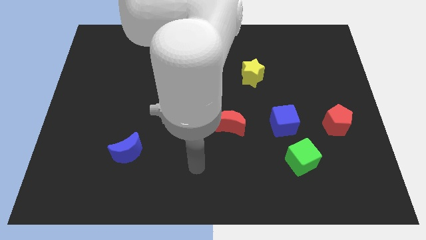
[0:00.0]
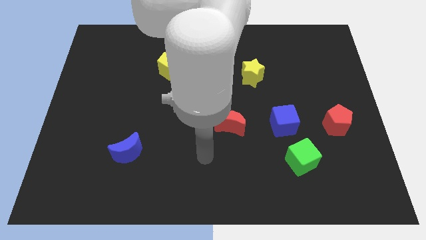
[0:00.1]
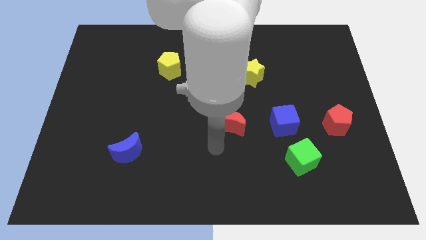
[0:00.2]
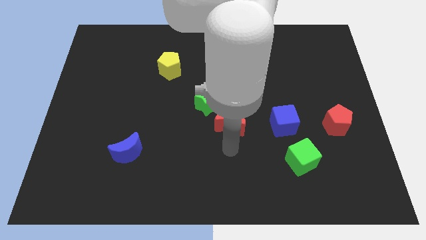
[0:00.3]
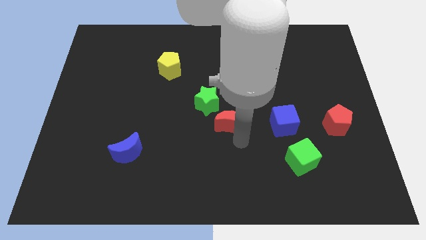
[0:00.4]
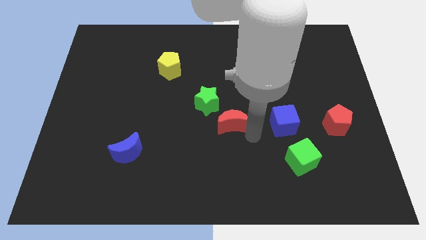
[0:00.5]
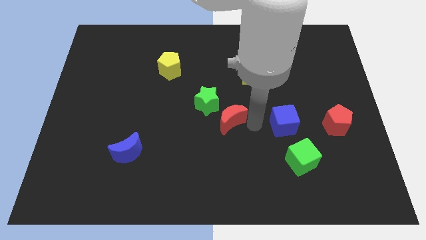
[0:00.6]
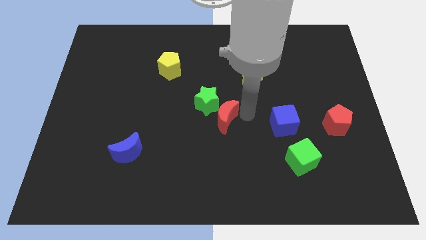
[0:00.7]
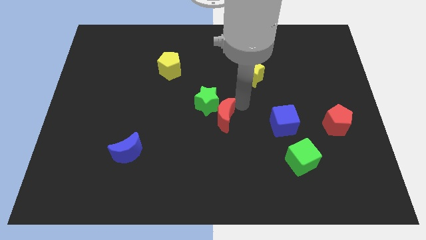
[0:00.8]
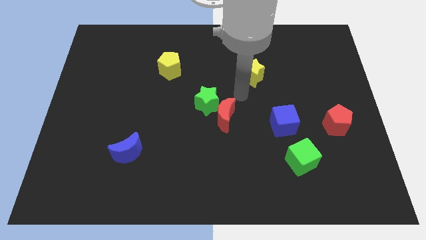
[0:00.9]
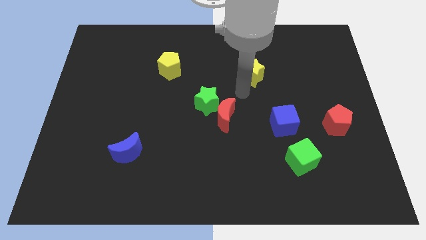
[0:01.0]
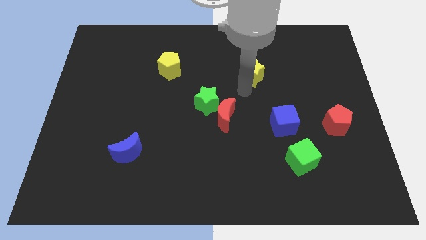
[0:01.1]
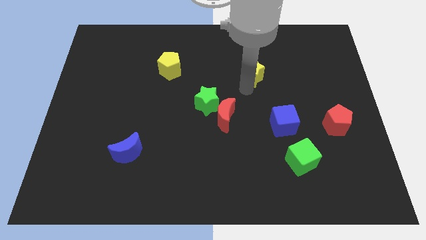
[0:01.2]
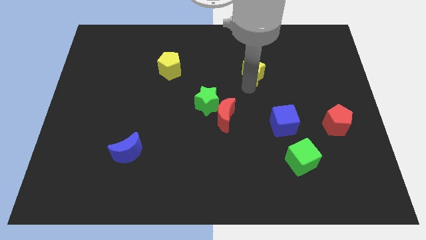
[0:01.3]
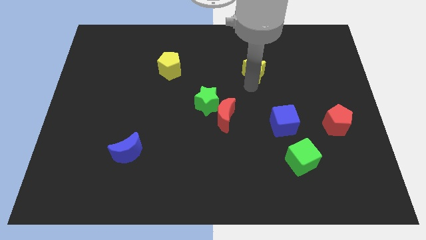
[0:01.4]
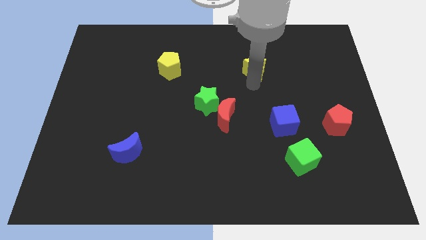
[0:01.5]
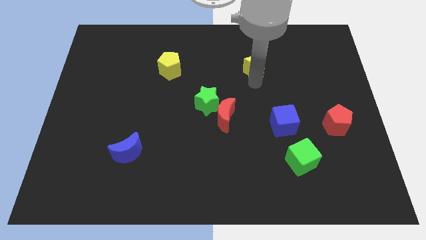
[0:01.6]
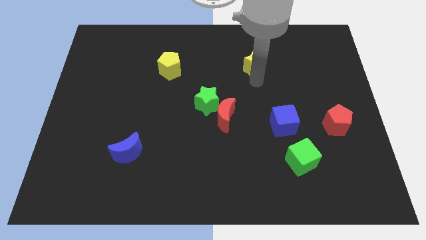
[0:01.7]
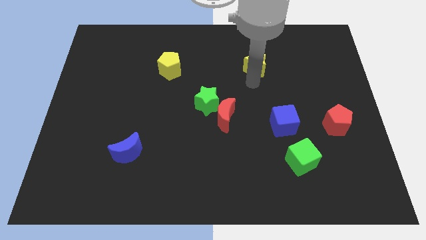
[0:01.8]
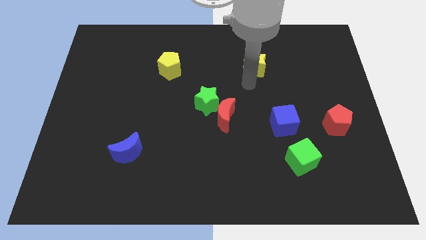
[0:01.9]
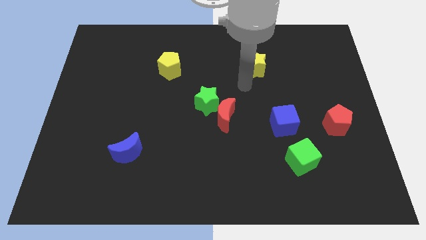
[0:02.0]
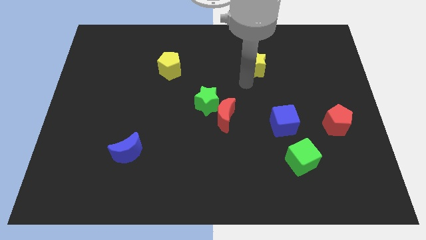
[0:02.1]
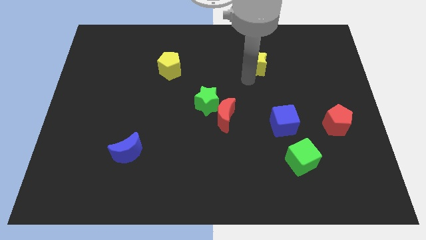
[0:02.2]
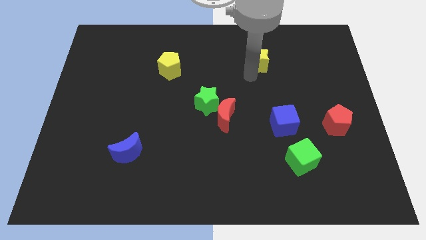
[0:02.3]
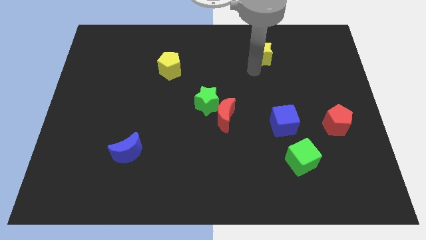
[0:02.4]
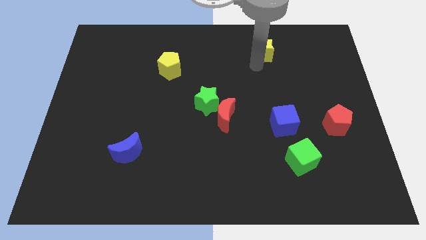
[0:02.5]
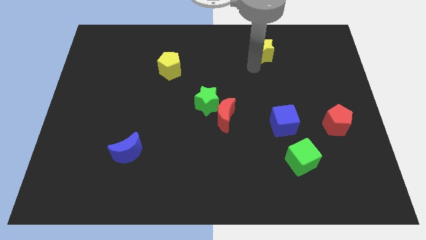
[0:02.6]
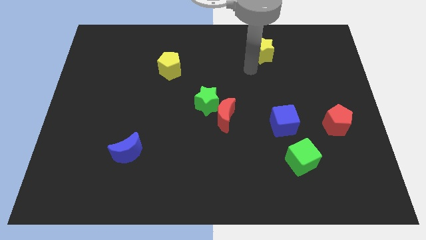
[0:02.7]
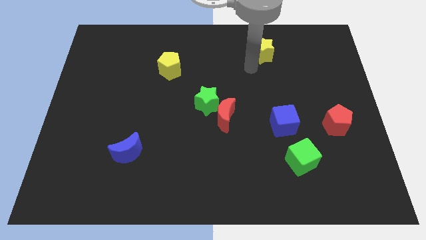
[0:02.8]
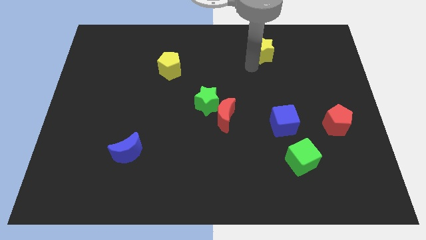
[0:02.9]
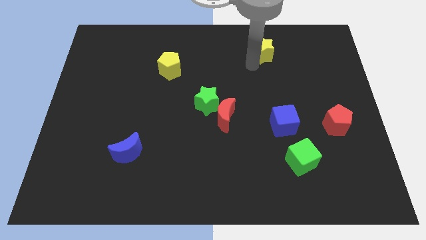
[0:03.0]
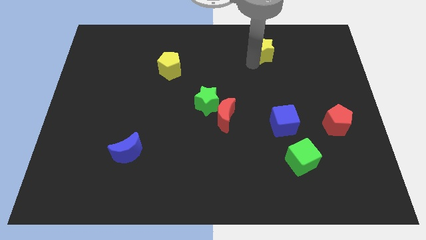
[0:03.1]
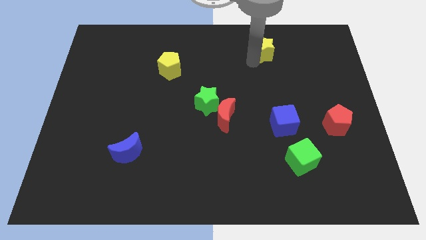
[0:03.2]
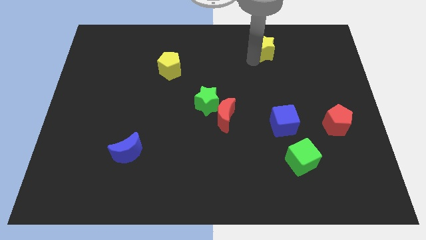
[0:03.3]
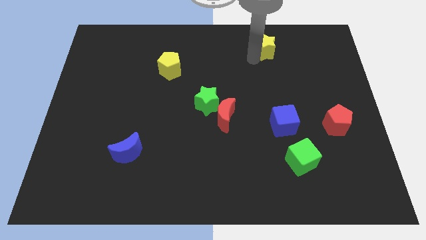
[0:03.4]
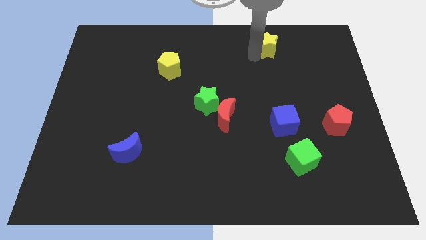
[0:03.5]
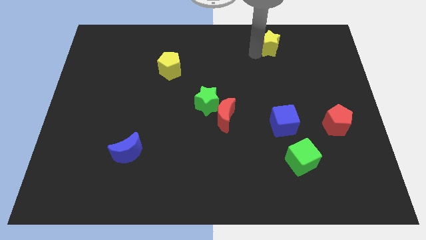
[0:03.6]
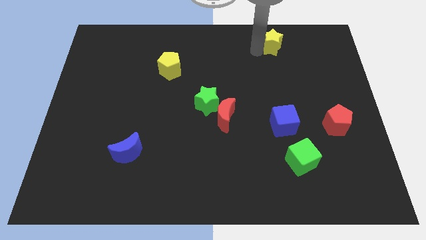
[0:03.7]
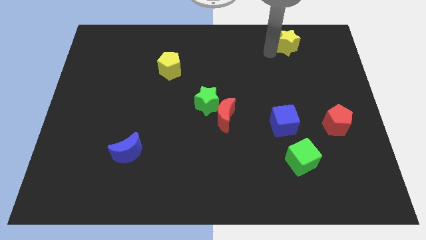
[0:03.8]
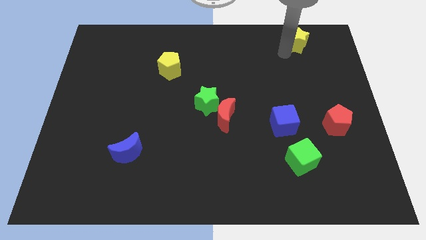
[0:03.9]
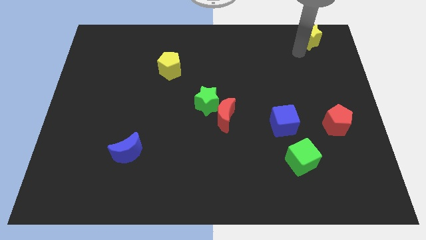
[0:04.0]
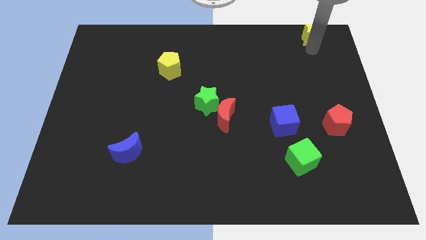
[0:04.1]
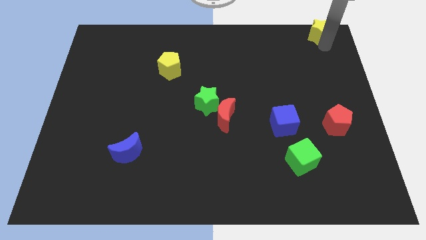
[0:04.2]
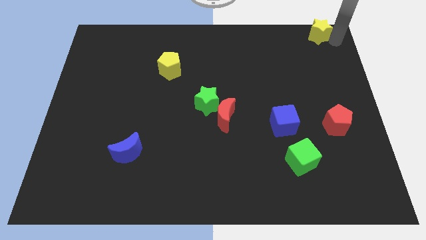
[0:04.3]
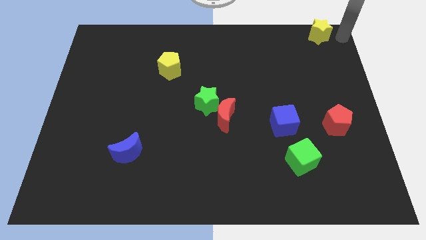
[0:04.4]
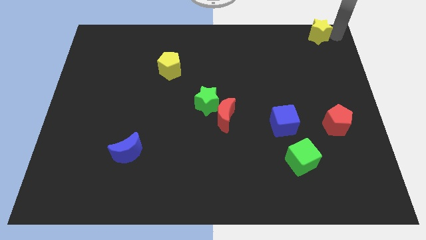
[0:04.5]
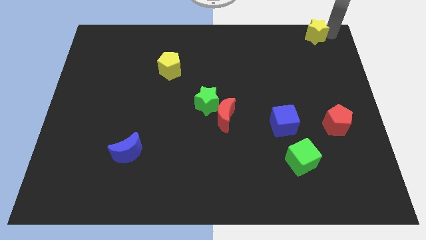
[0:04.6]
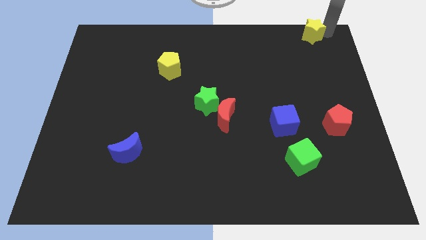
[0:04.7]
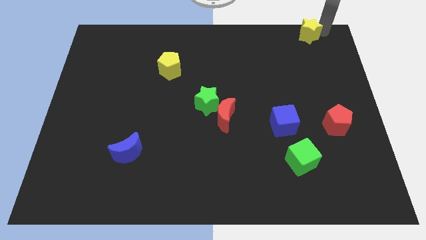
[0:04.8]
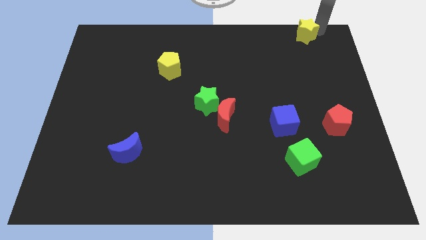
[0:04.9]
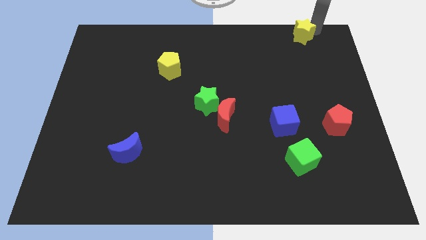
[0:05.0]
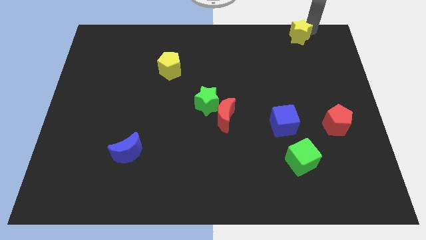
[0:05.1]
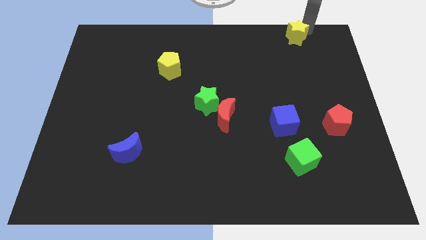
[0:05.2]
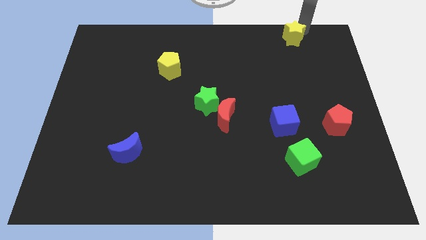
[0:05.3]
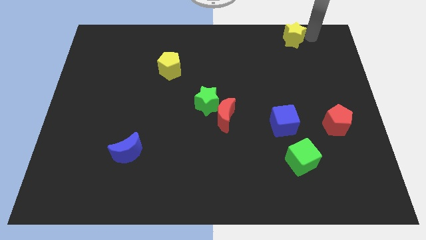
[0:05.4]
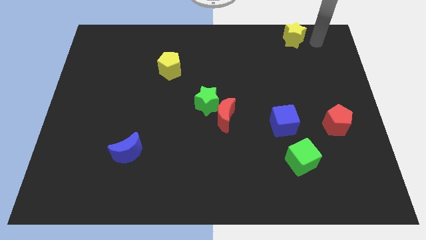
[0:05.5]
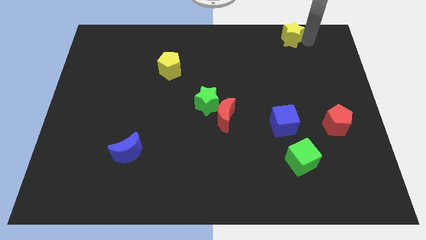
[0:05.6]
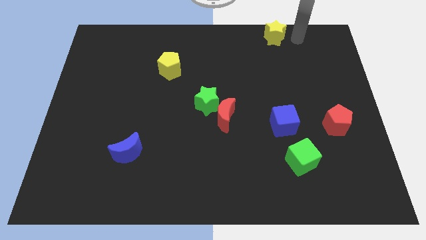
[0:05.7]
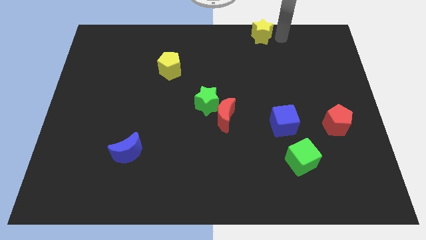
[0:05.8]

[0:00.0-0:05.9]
put the yellow star to the towards your base

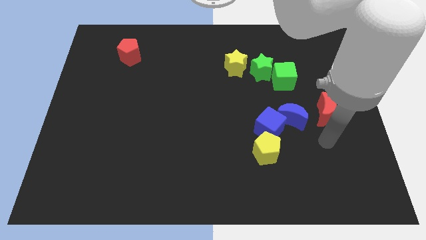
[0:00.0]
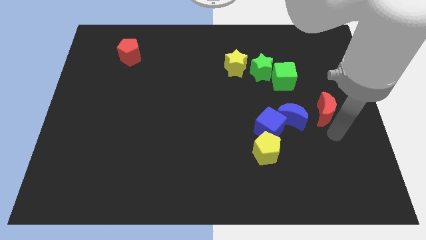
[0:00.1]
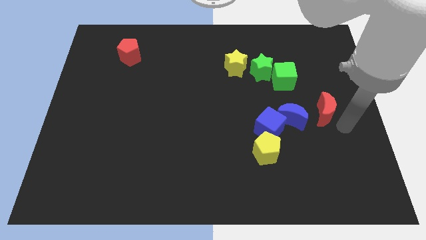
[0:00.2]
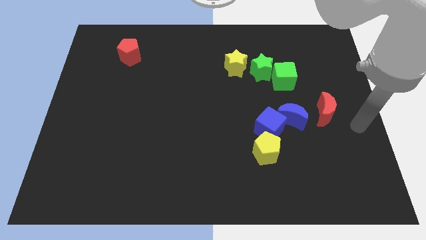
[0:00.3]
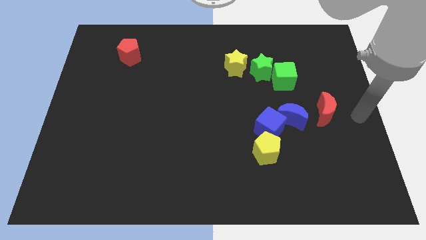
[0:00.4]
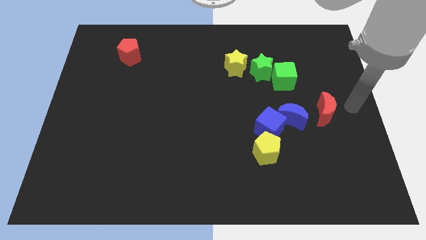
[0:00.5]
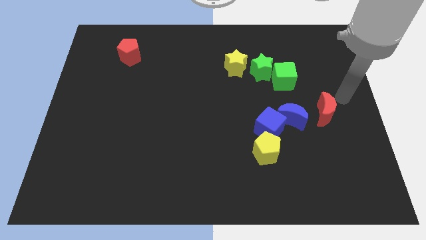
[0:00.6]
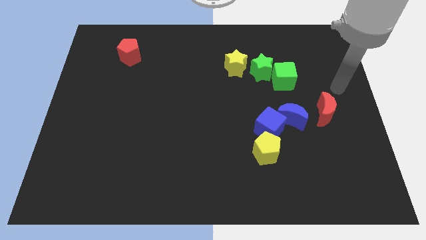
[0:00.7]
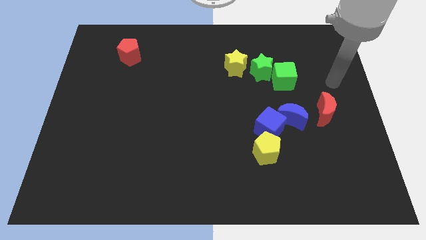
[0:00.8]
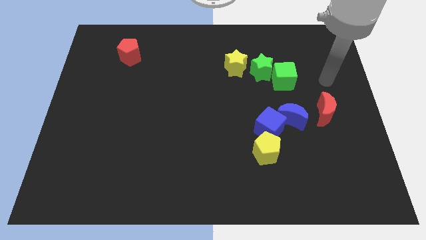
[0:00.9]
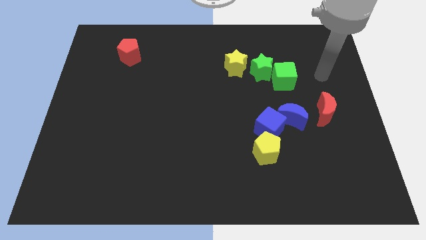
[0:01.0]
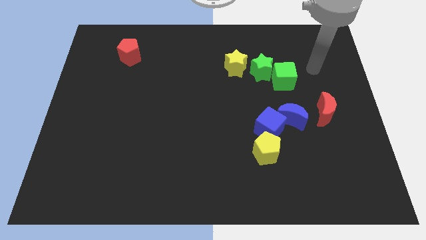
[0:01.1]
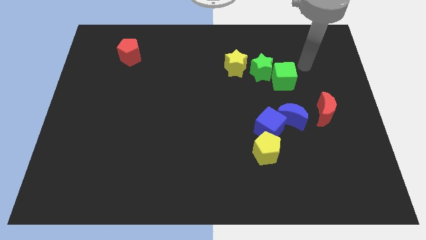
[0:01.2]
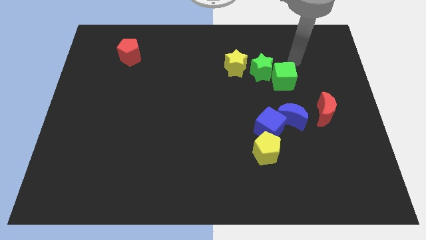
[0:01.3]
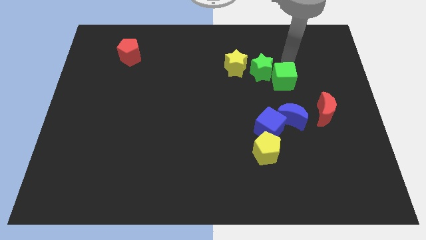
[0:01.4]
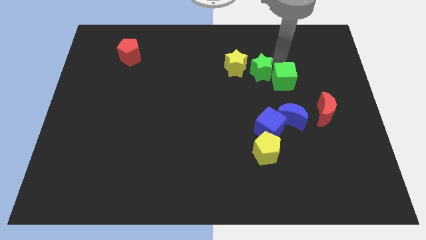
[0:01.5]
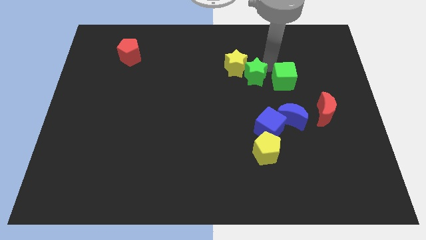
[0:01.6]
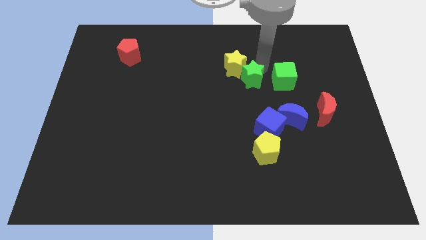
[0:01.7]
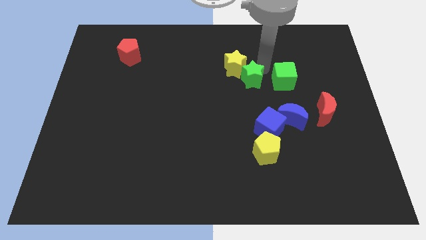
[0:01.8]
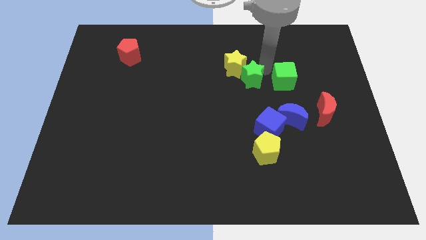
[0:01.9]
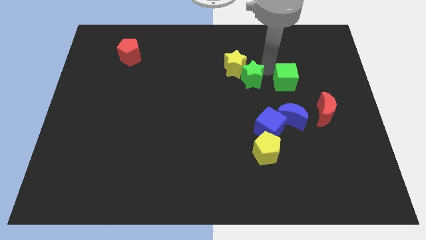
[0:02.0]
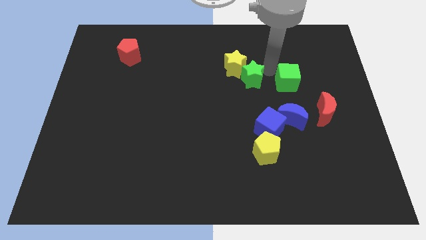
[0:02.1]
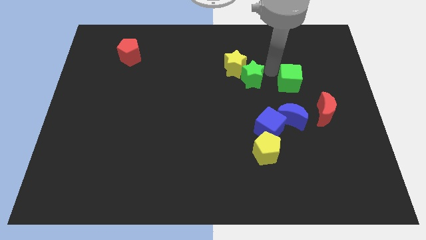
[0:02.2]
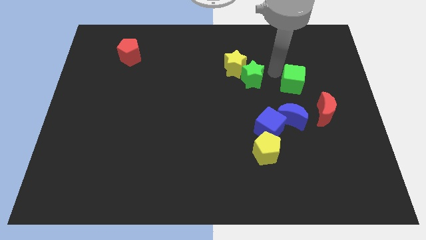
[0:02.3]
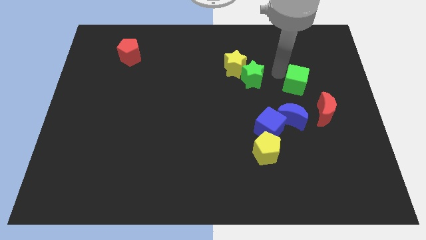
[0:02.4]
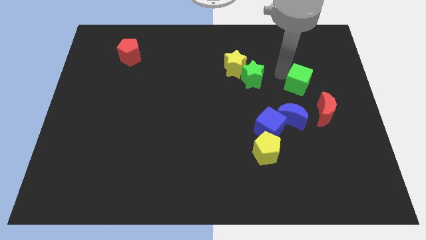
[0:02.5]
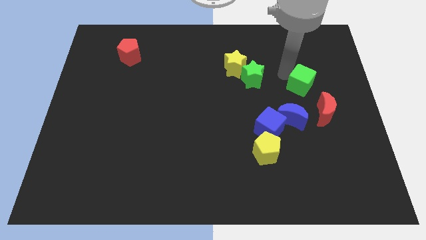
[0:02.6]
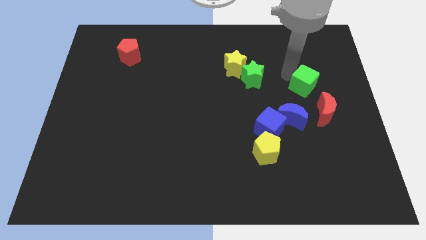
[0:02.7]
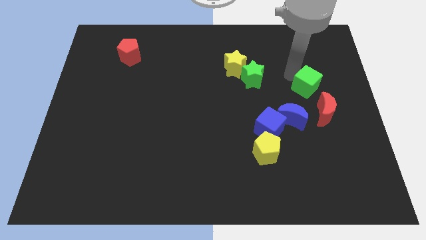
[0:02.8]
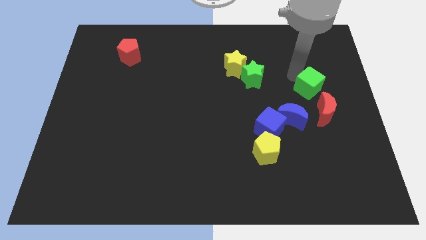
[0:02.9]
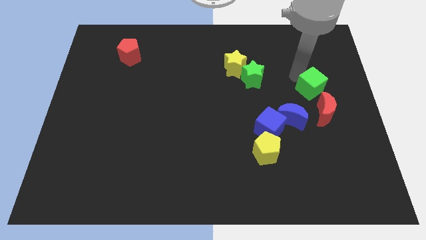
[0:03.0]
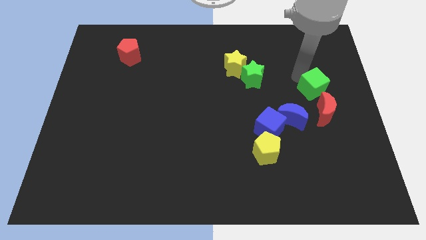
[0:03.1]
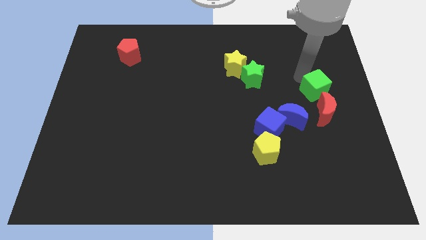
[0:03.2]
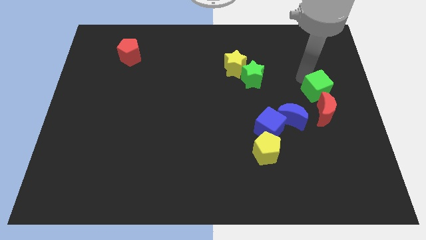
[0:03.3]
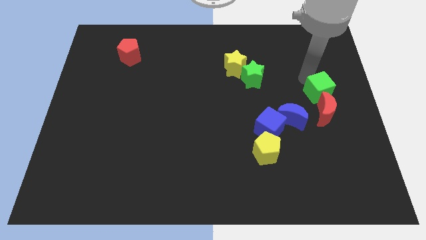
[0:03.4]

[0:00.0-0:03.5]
move the green cube to the center right
